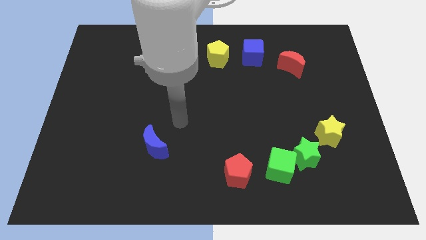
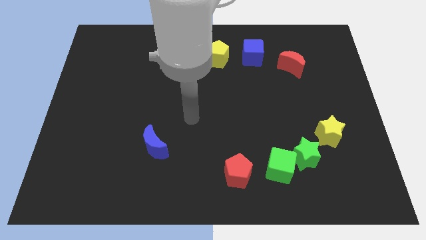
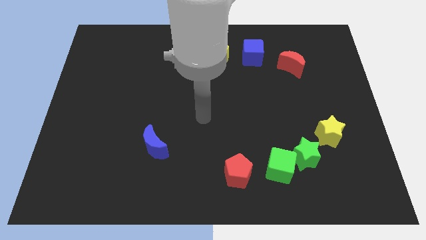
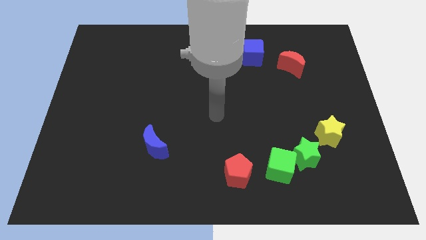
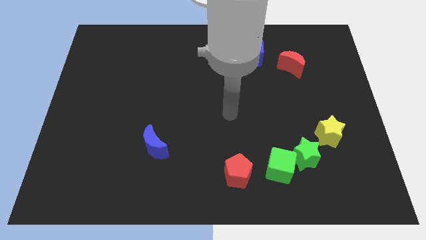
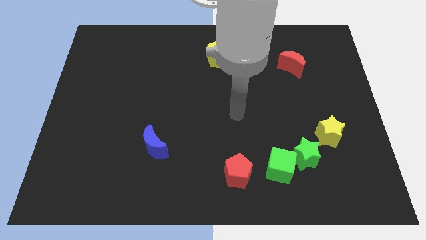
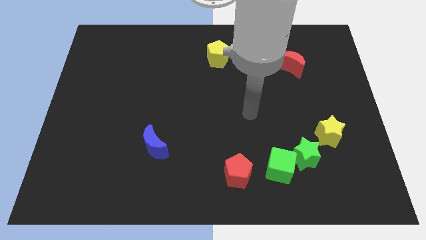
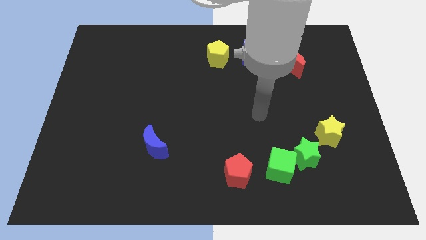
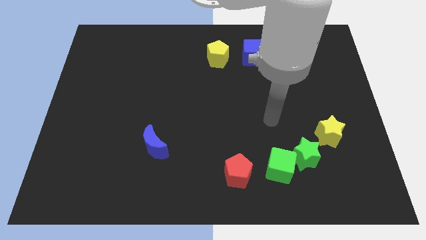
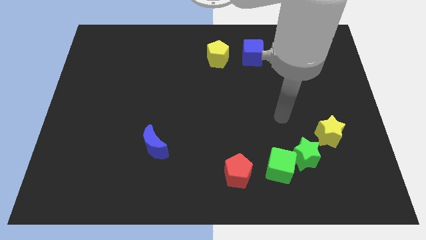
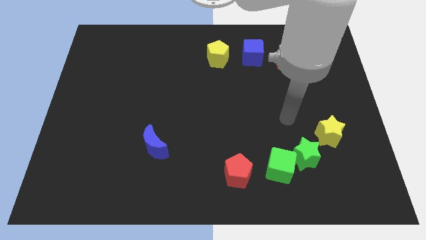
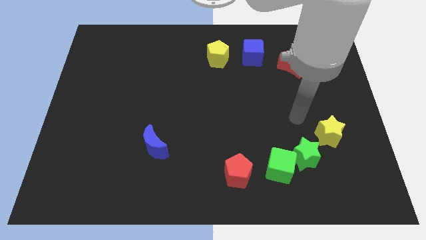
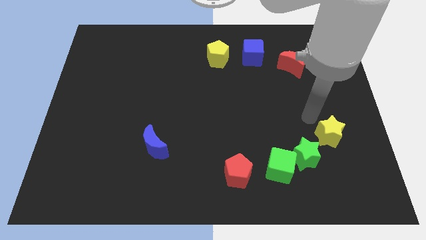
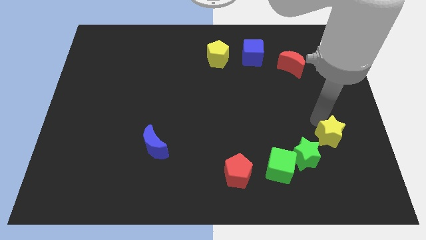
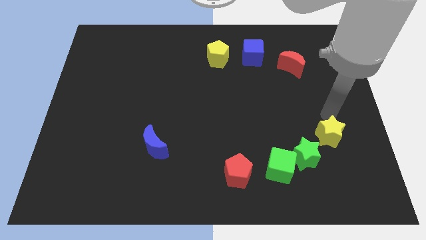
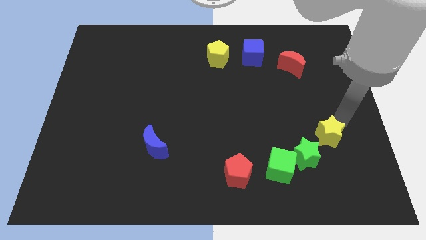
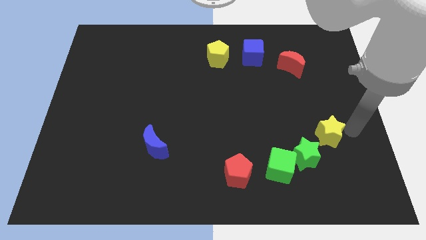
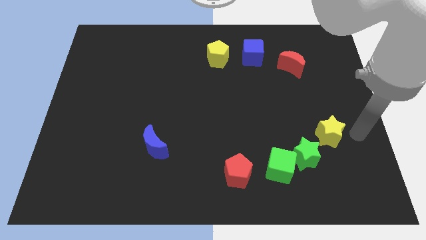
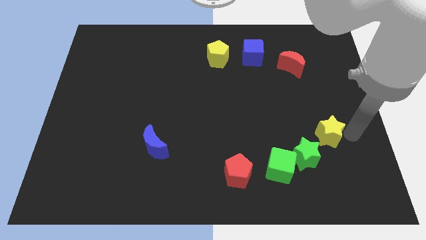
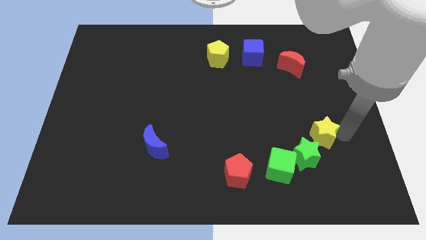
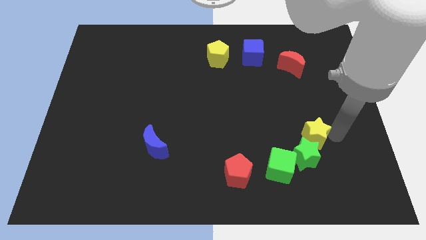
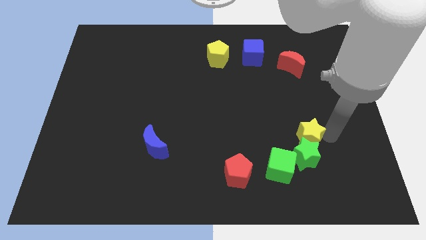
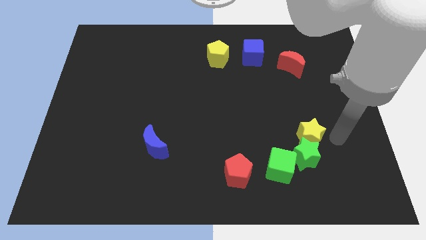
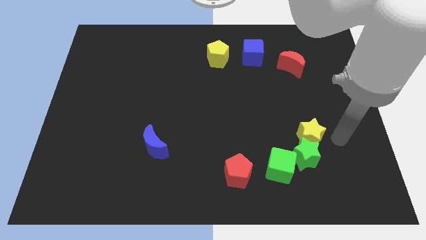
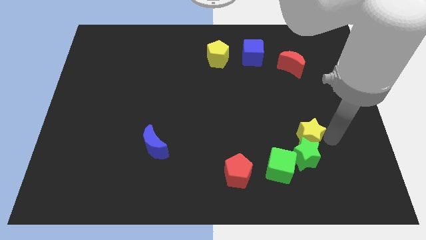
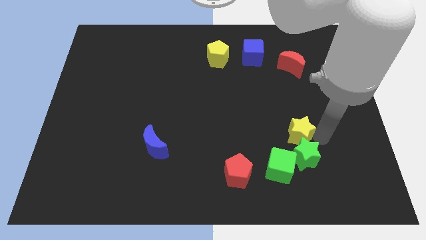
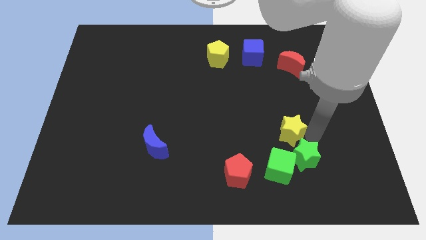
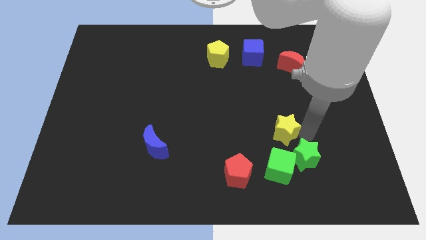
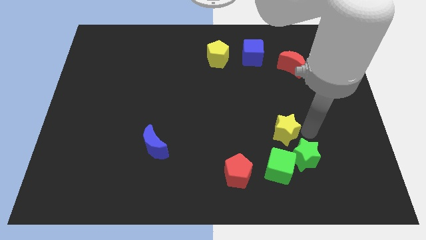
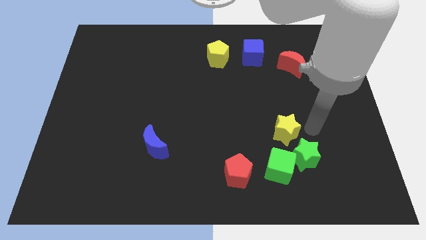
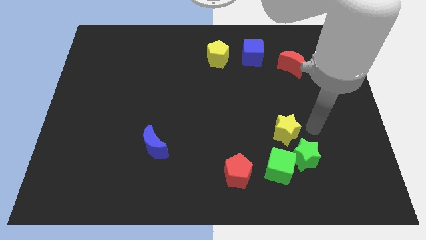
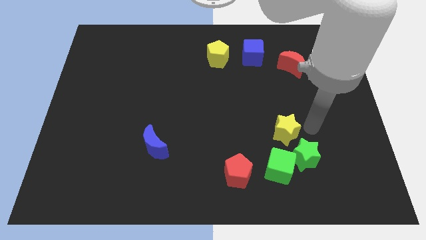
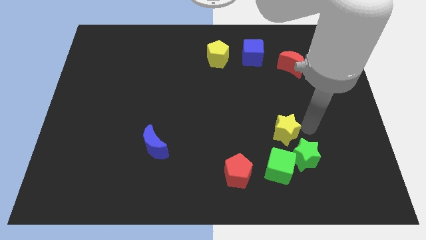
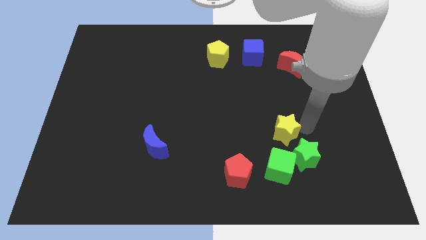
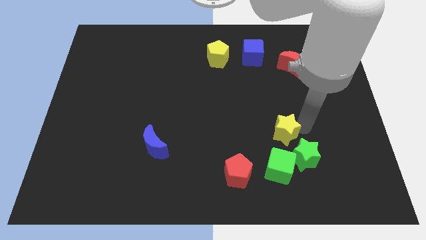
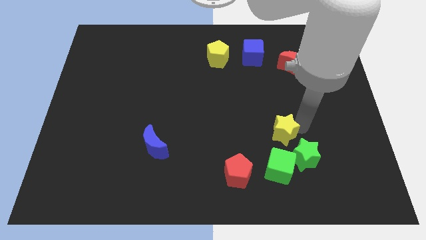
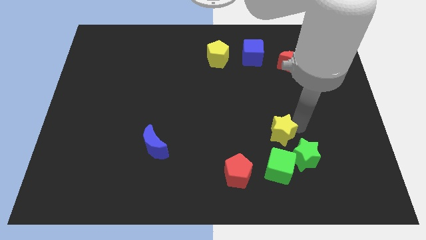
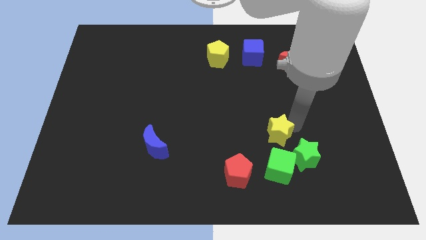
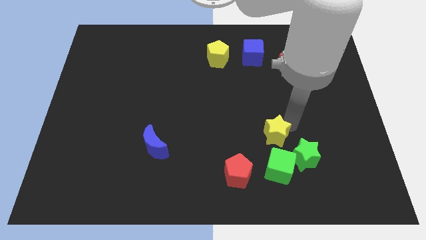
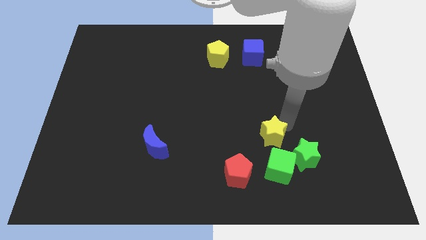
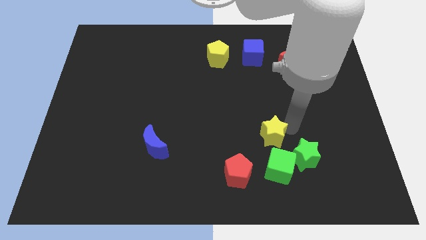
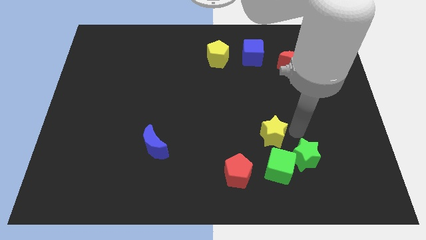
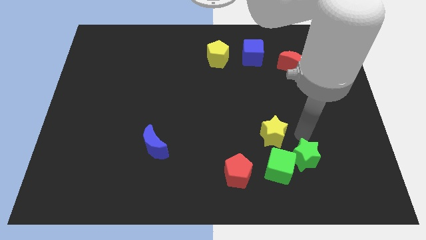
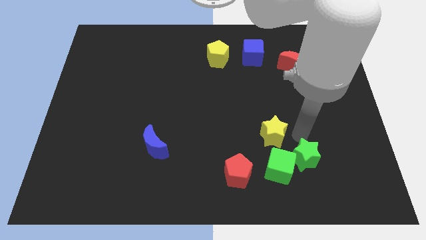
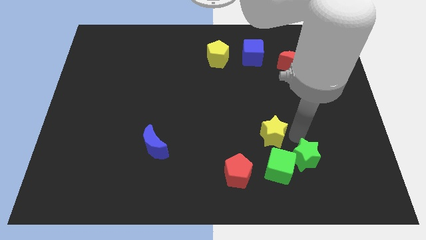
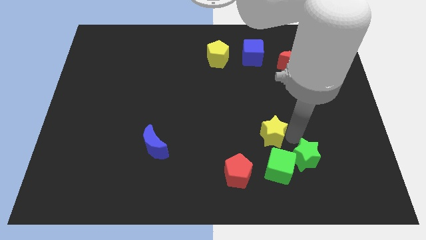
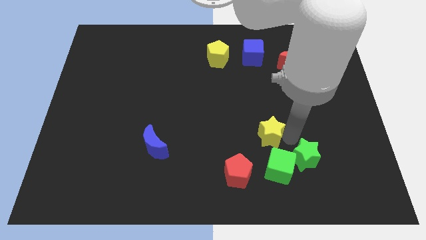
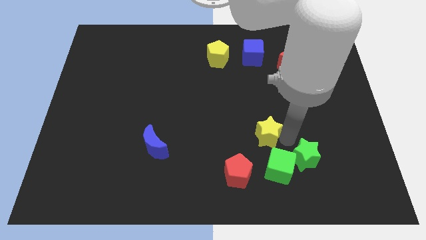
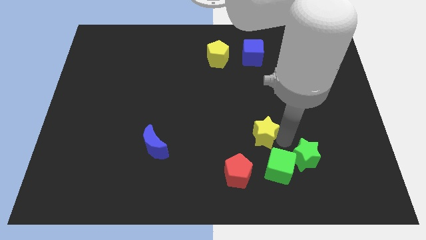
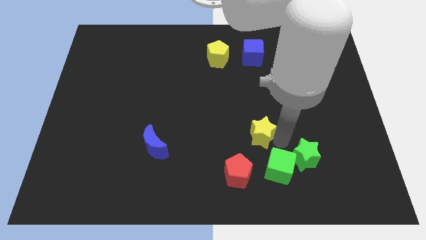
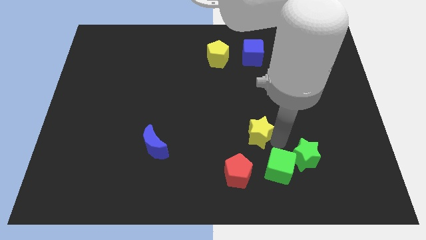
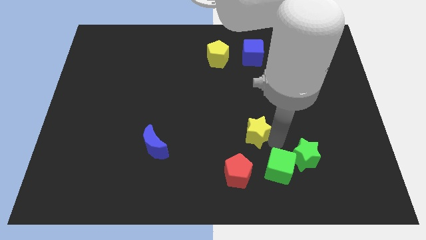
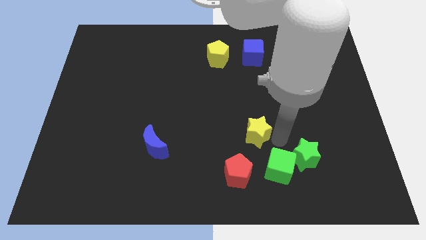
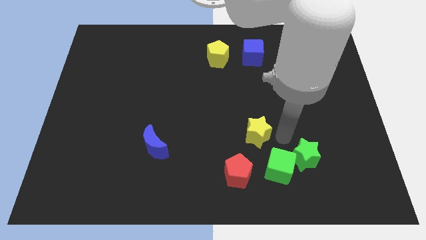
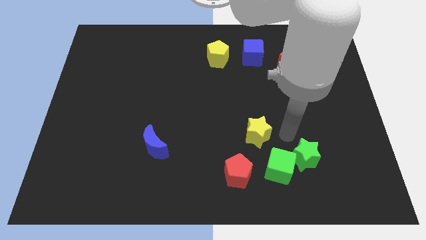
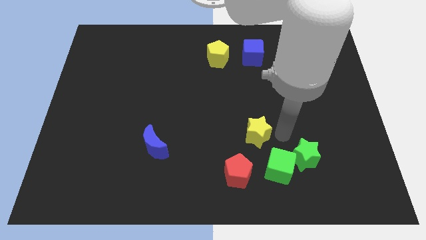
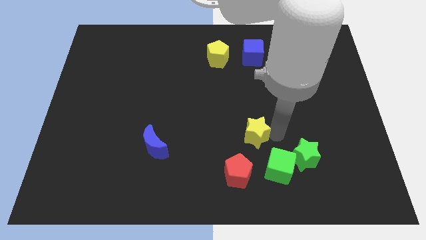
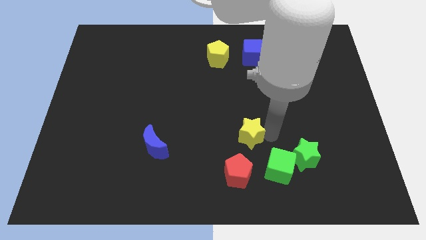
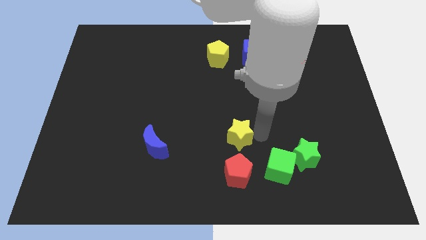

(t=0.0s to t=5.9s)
slide the yellow star left

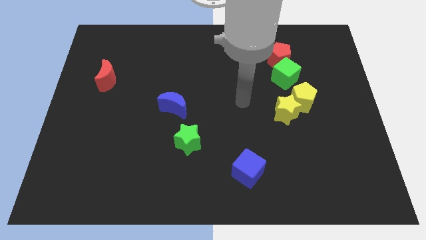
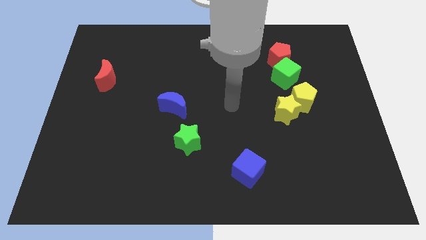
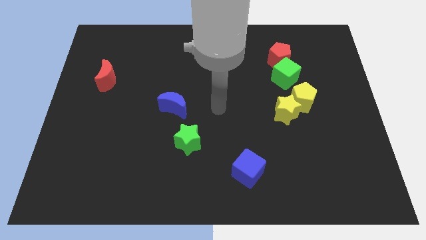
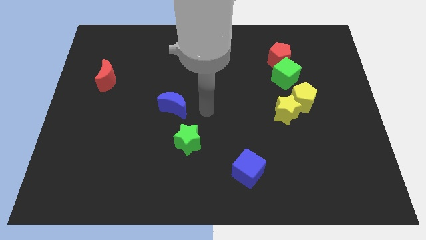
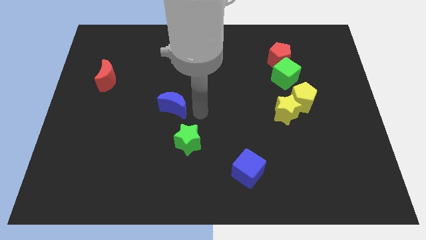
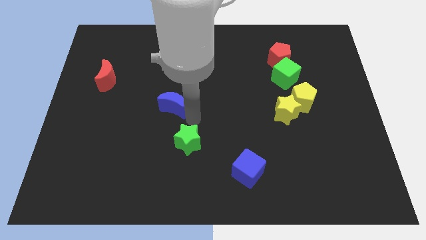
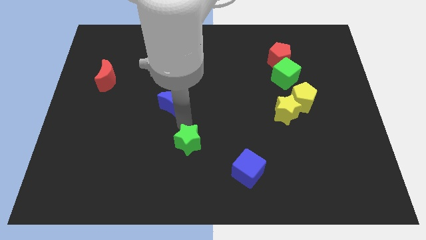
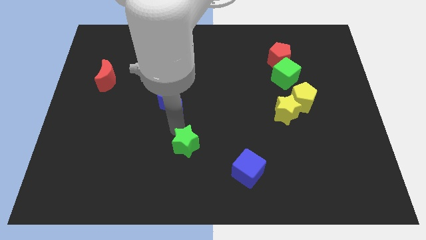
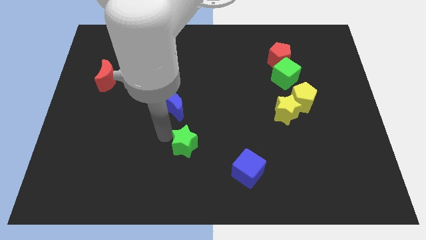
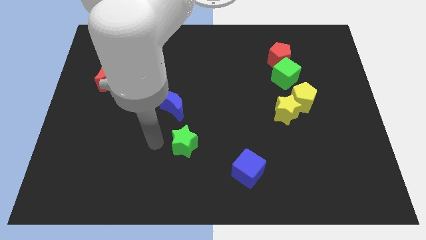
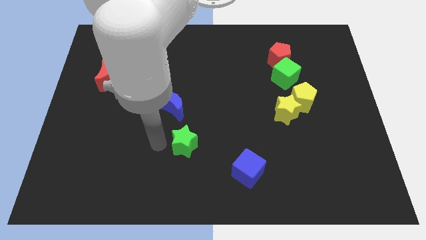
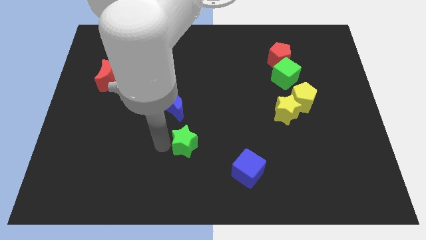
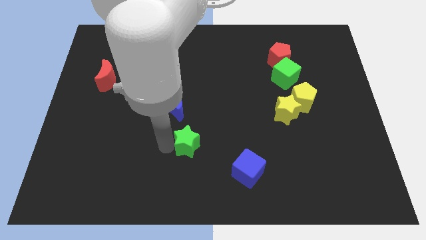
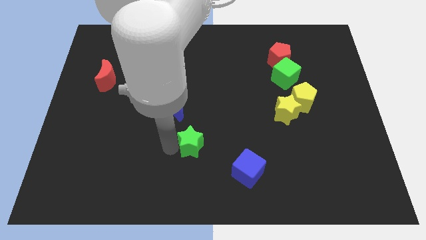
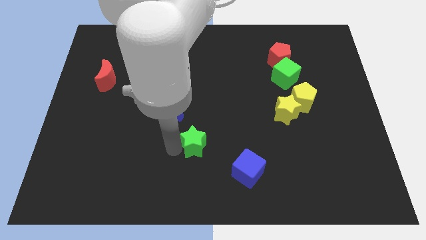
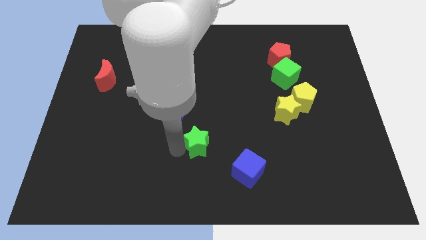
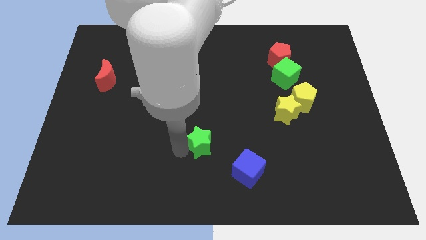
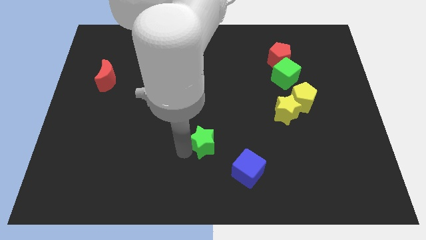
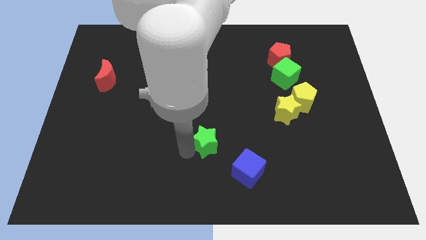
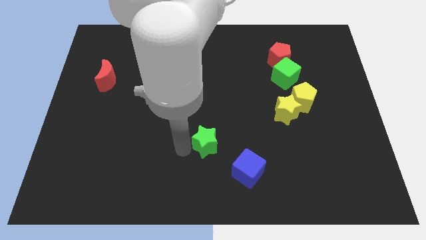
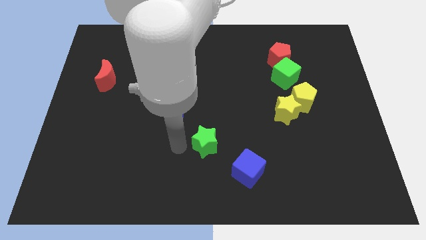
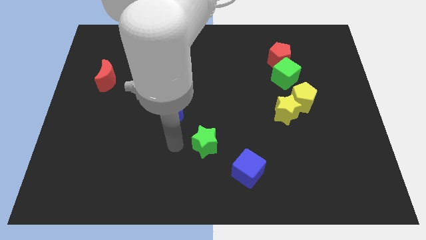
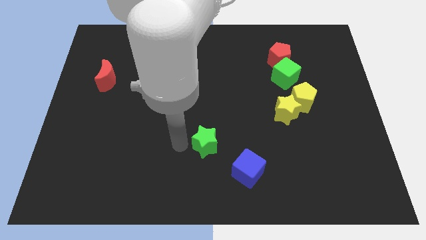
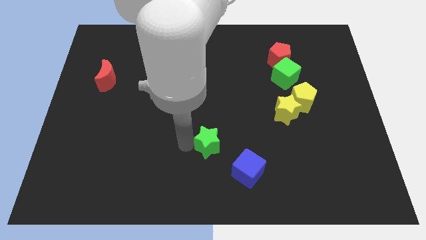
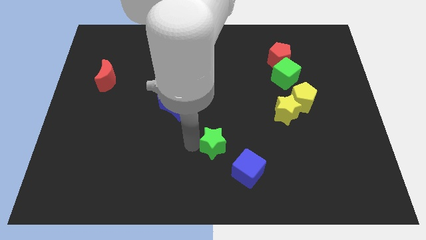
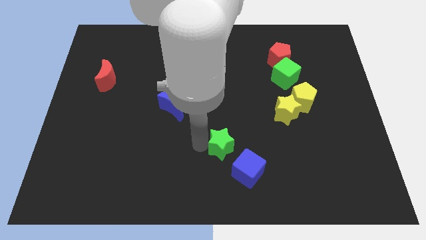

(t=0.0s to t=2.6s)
slightly slide the green star right
